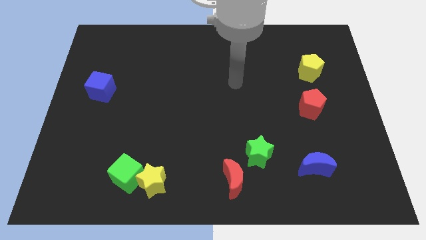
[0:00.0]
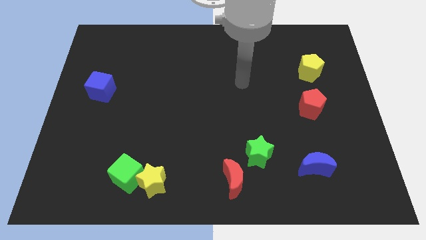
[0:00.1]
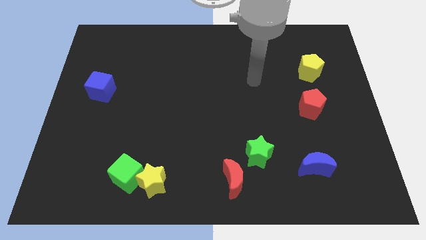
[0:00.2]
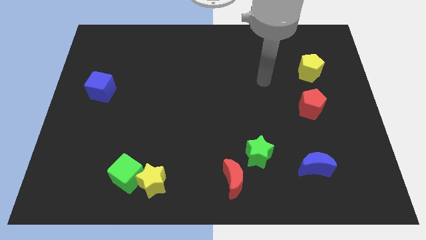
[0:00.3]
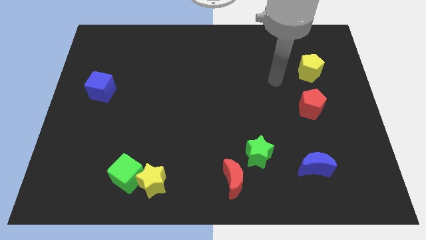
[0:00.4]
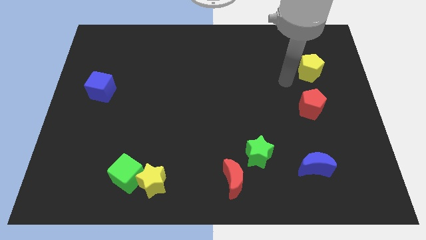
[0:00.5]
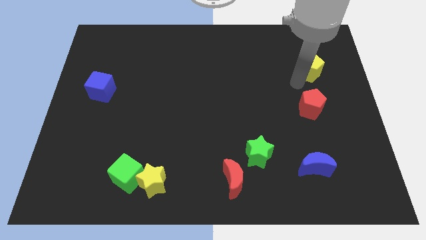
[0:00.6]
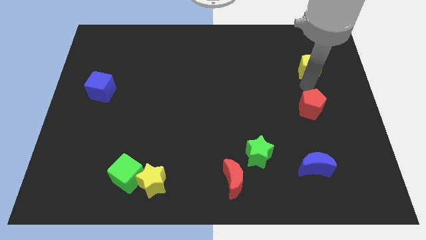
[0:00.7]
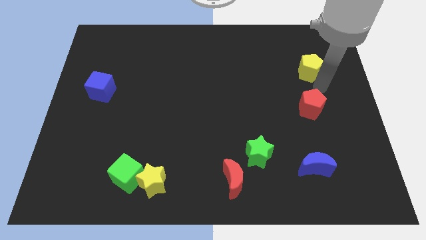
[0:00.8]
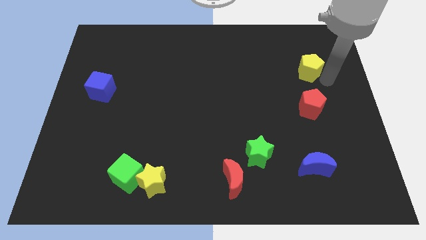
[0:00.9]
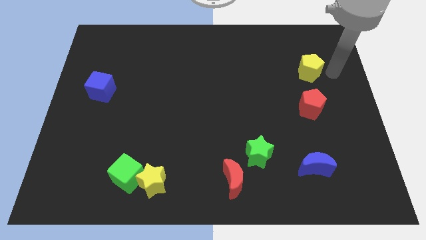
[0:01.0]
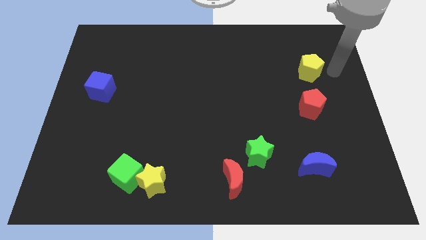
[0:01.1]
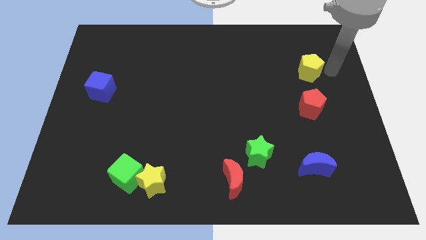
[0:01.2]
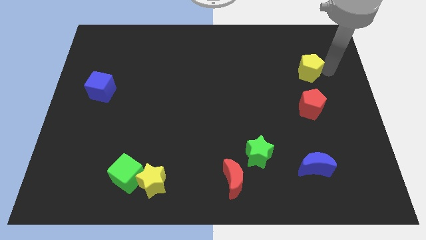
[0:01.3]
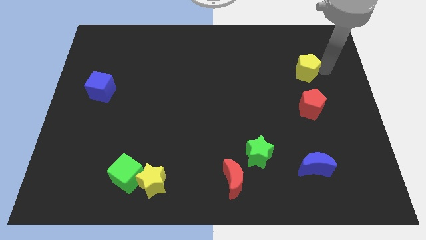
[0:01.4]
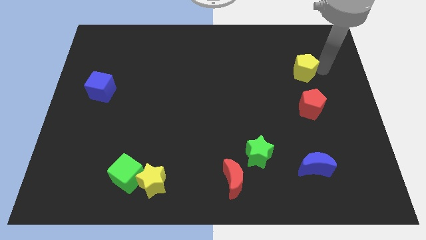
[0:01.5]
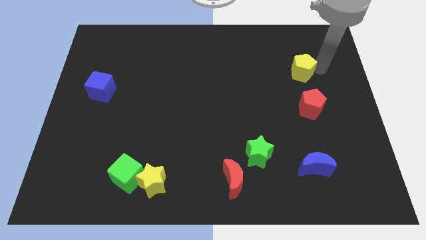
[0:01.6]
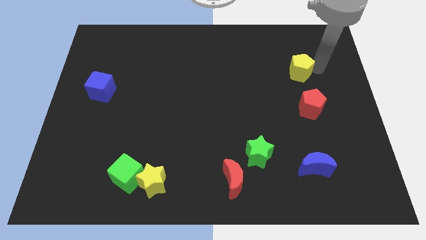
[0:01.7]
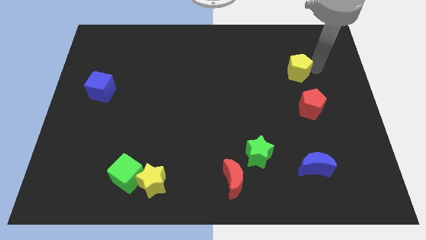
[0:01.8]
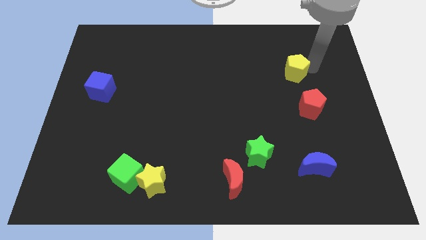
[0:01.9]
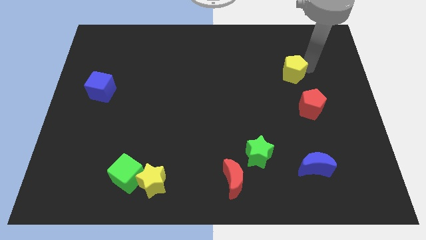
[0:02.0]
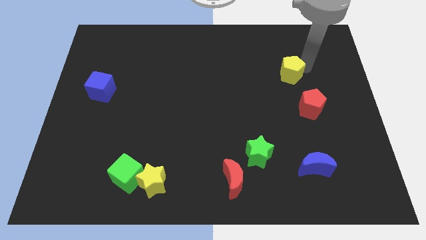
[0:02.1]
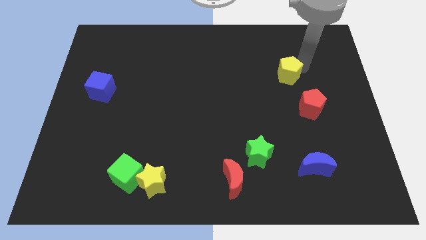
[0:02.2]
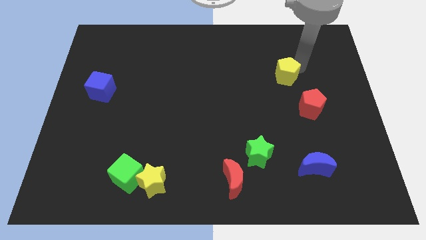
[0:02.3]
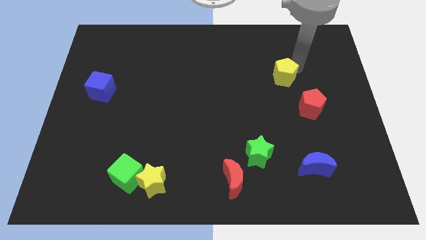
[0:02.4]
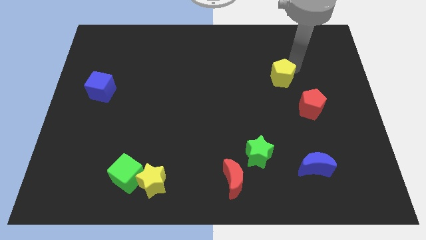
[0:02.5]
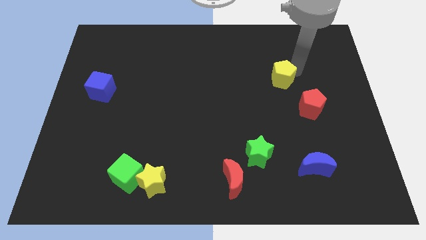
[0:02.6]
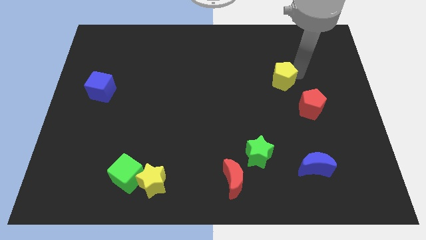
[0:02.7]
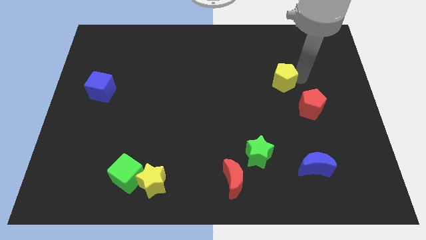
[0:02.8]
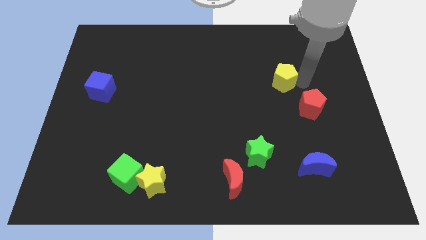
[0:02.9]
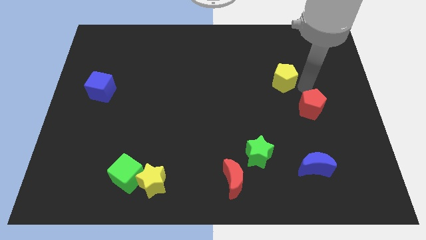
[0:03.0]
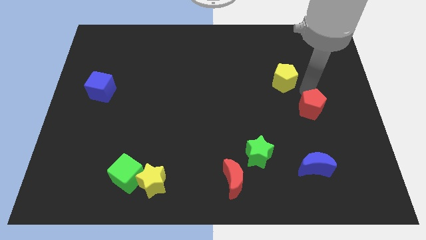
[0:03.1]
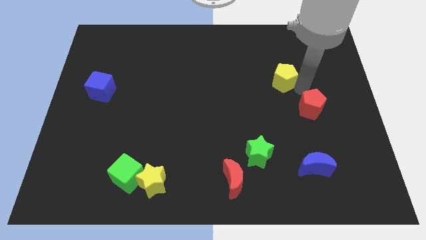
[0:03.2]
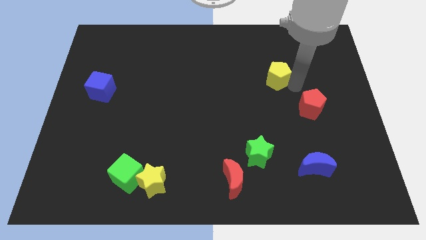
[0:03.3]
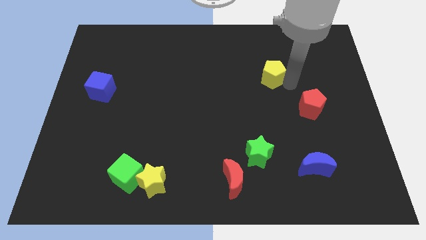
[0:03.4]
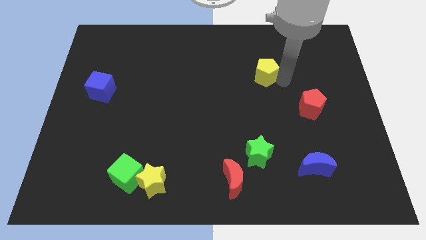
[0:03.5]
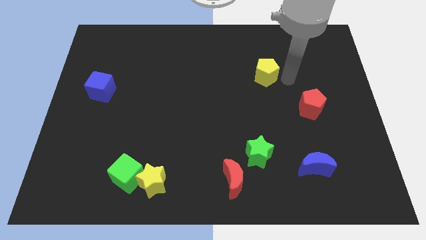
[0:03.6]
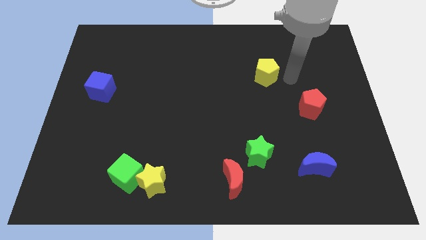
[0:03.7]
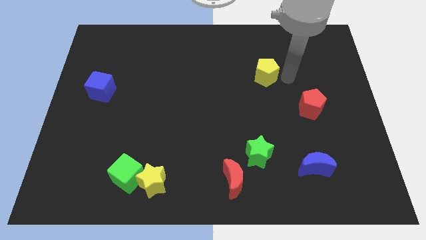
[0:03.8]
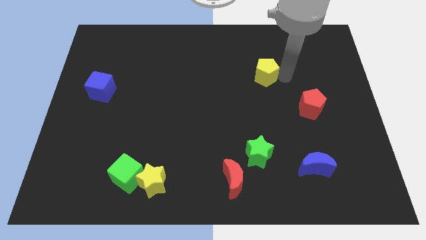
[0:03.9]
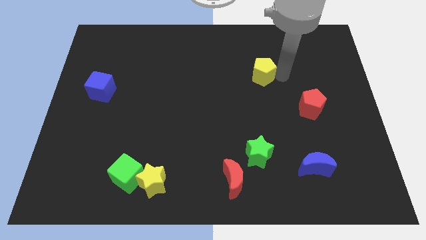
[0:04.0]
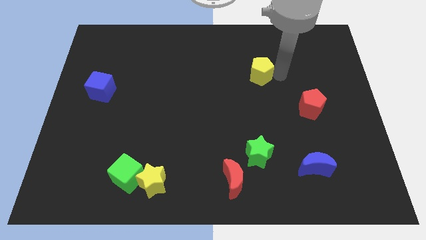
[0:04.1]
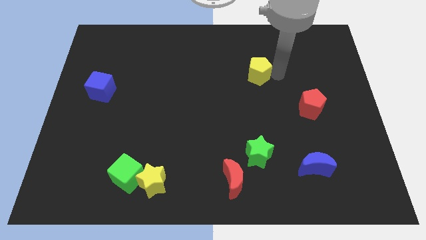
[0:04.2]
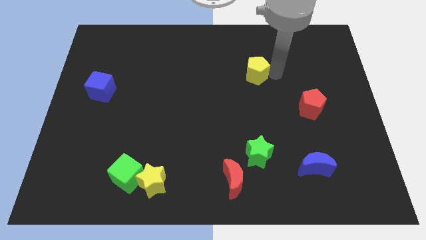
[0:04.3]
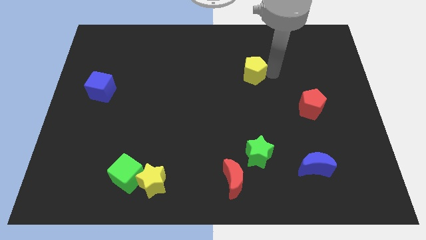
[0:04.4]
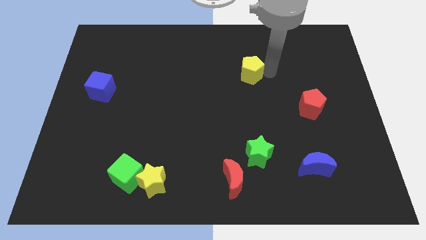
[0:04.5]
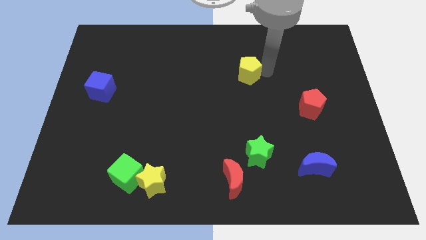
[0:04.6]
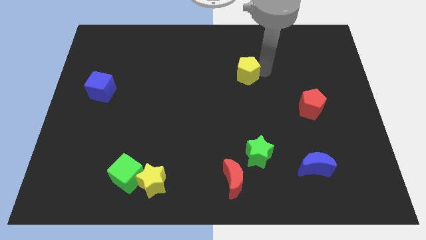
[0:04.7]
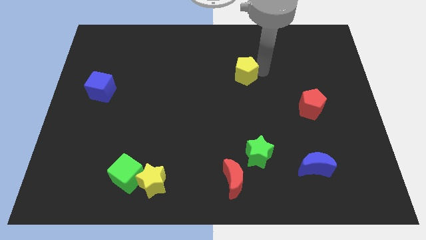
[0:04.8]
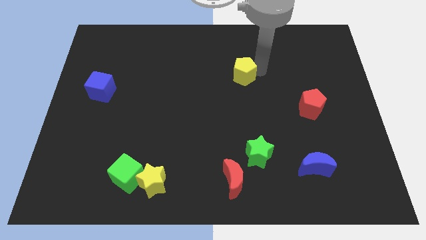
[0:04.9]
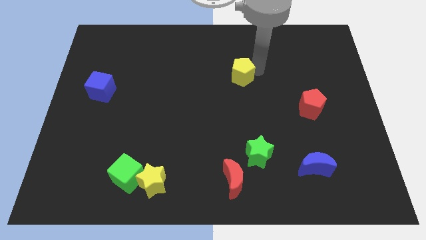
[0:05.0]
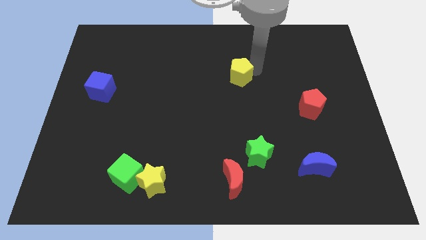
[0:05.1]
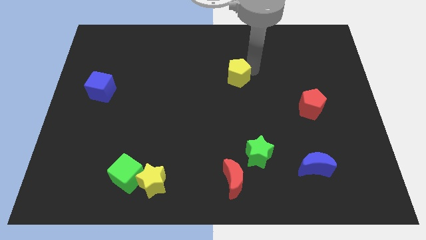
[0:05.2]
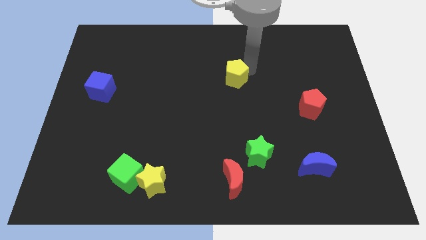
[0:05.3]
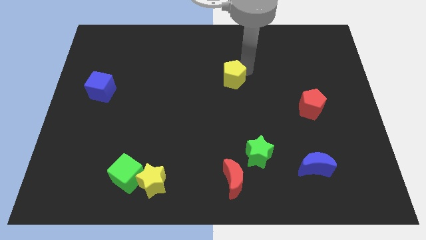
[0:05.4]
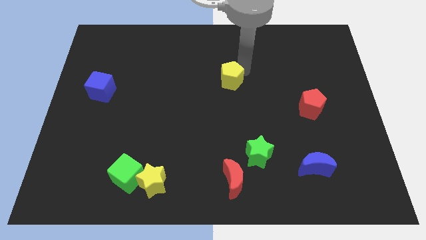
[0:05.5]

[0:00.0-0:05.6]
push the yellow pentagon to the left

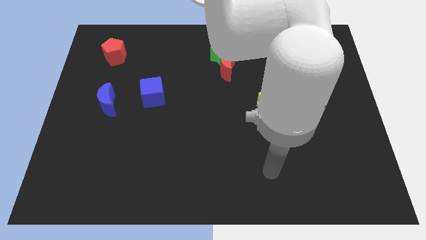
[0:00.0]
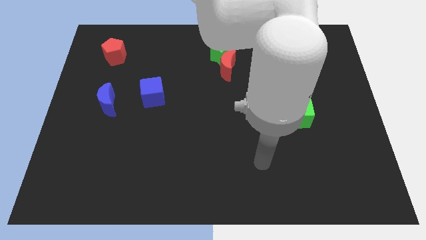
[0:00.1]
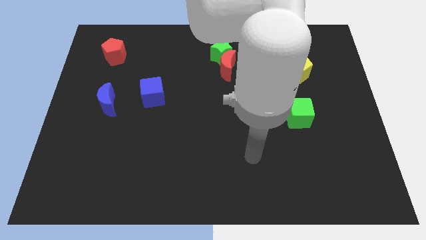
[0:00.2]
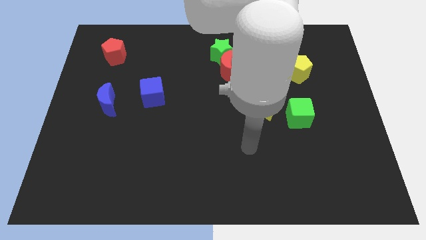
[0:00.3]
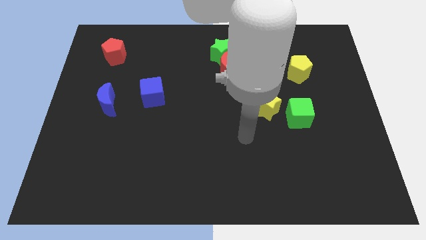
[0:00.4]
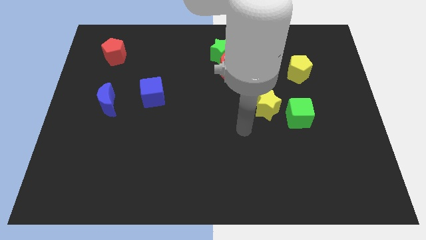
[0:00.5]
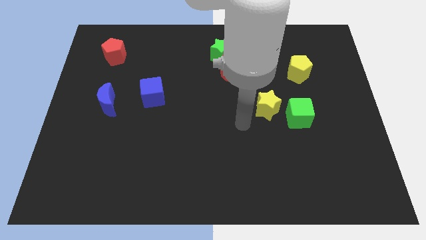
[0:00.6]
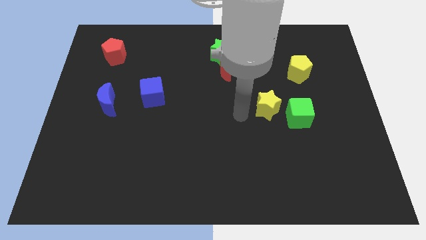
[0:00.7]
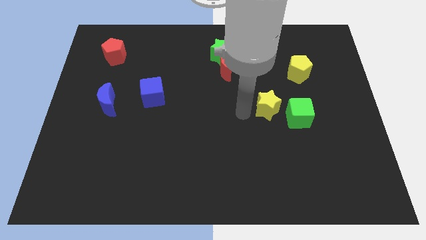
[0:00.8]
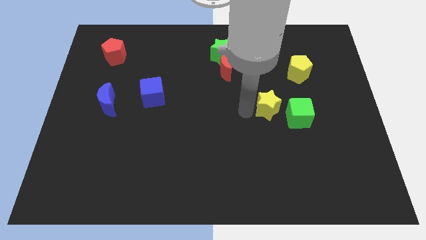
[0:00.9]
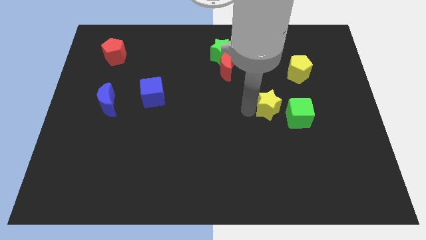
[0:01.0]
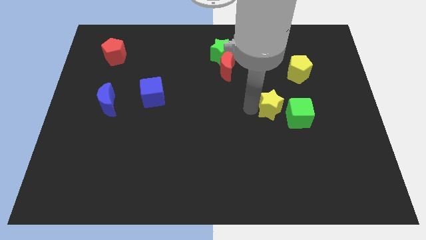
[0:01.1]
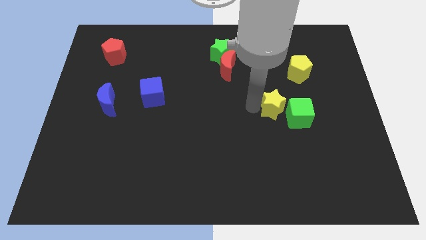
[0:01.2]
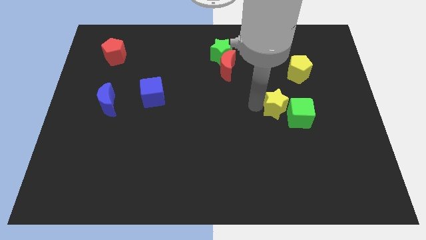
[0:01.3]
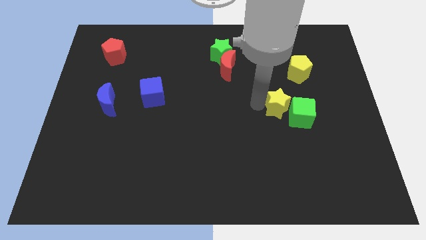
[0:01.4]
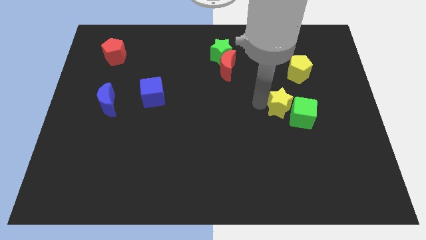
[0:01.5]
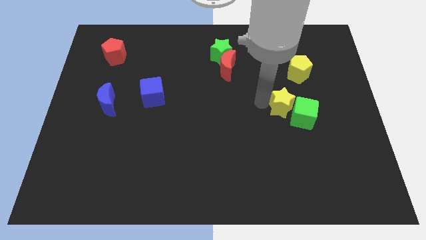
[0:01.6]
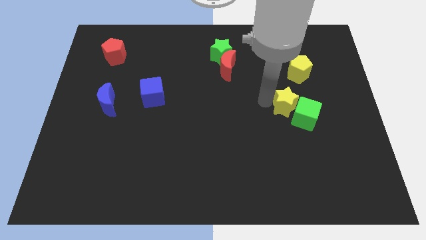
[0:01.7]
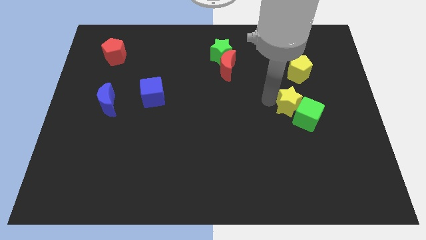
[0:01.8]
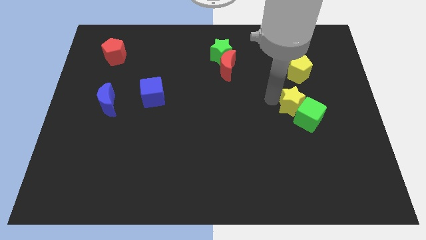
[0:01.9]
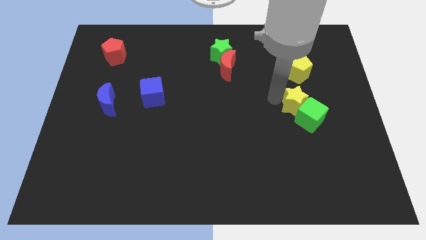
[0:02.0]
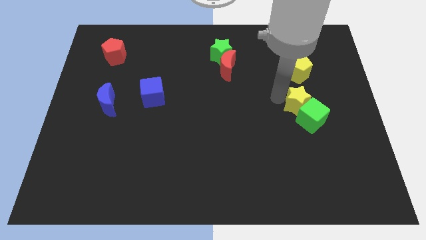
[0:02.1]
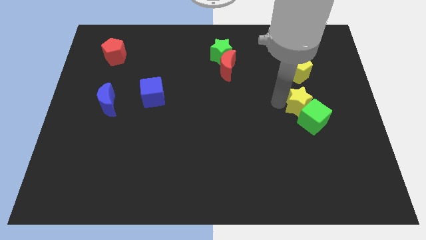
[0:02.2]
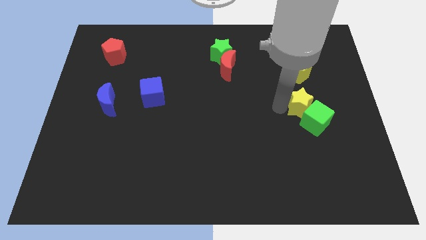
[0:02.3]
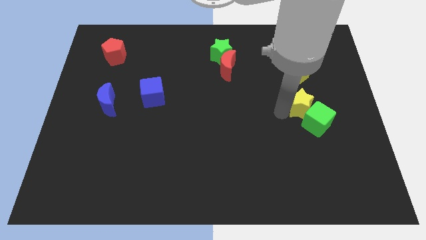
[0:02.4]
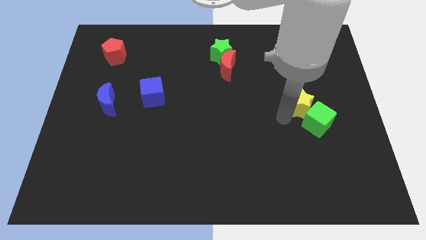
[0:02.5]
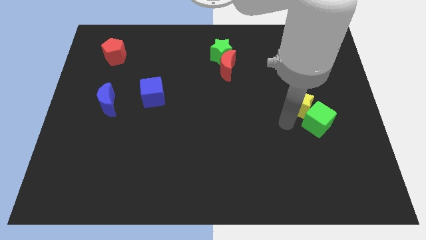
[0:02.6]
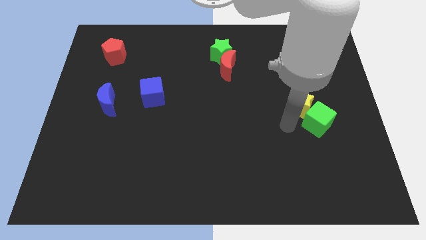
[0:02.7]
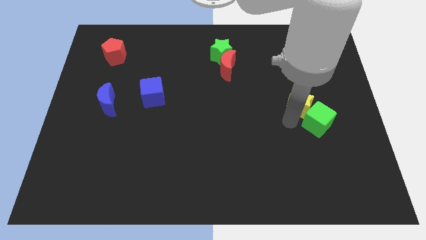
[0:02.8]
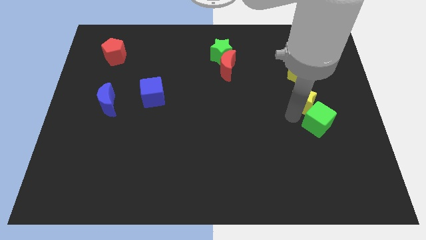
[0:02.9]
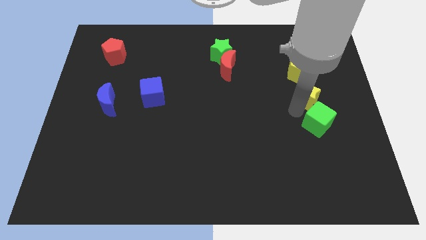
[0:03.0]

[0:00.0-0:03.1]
slide the yellow star upwards and to the right a little
